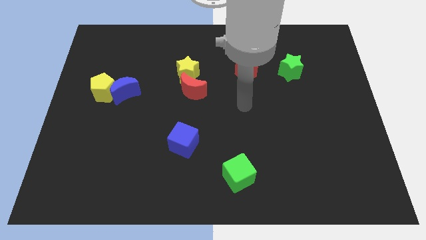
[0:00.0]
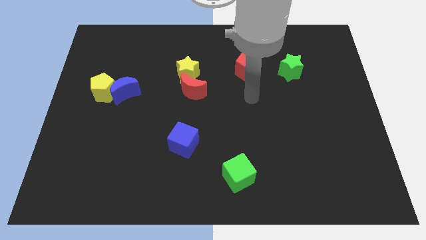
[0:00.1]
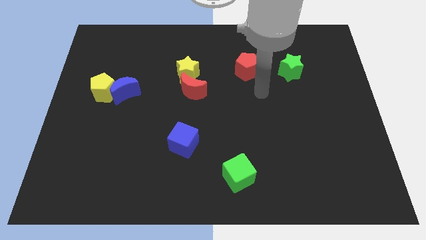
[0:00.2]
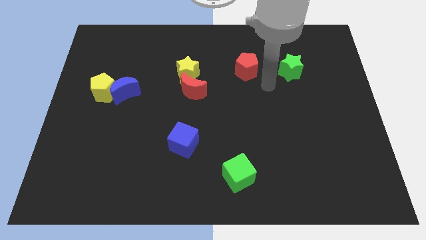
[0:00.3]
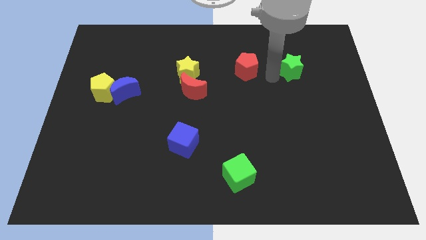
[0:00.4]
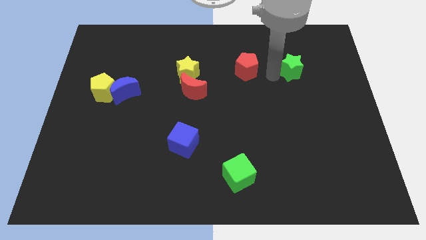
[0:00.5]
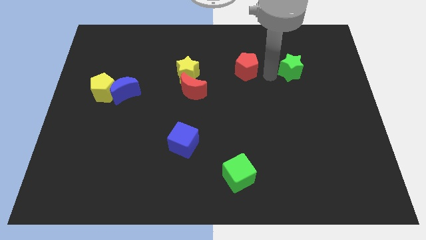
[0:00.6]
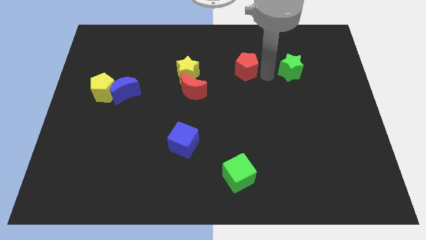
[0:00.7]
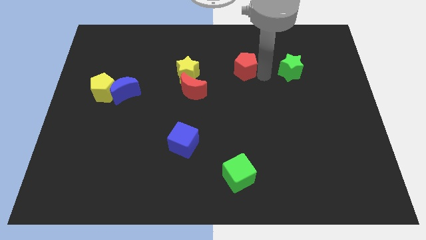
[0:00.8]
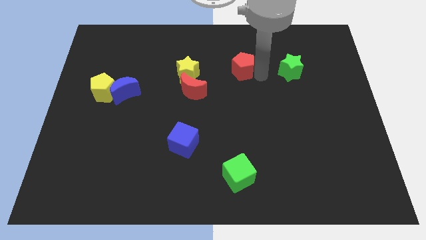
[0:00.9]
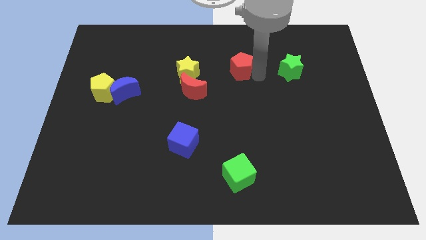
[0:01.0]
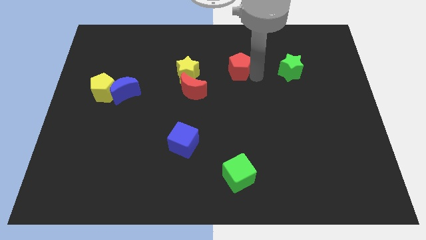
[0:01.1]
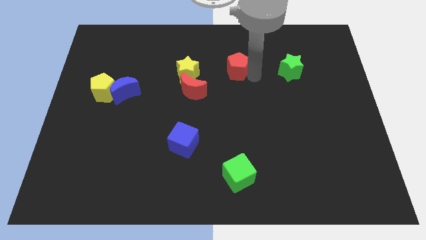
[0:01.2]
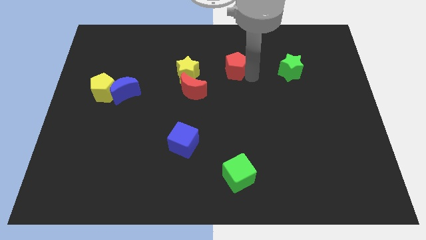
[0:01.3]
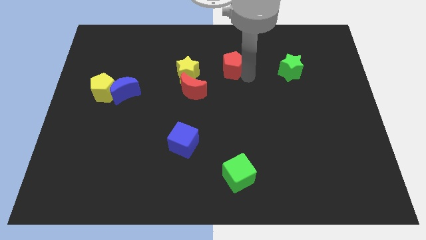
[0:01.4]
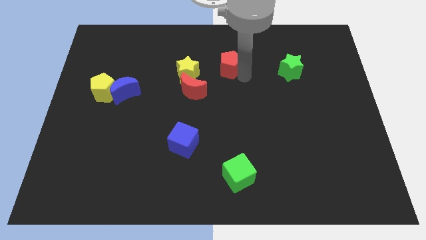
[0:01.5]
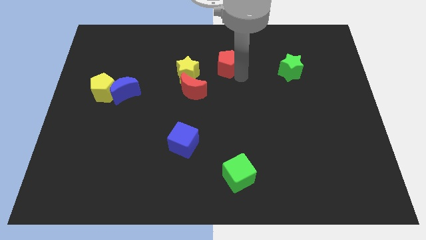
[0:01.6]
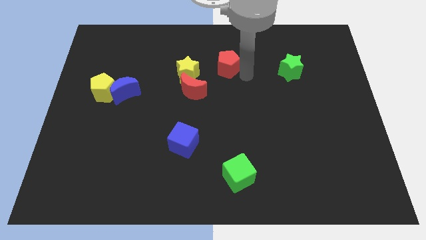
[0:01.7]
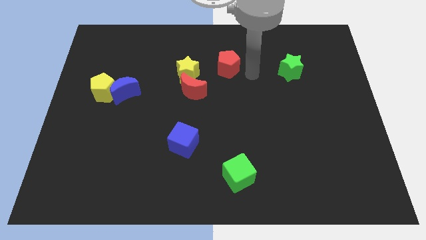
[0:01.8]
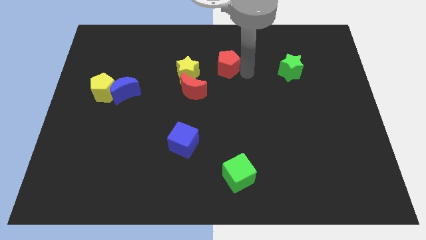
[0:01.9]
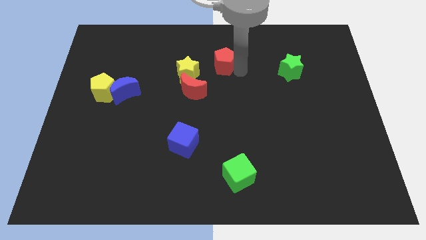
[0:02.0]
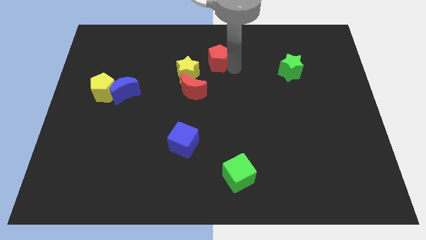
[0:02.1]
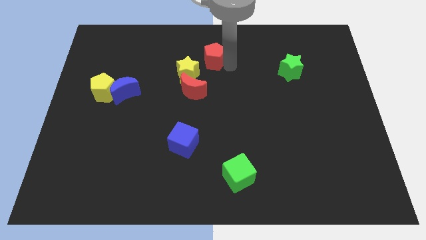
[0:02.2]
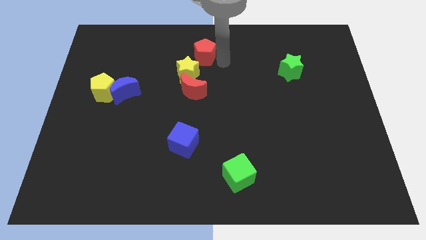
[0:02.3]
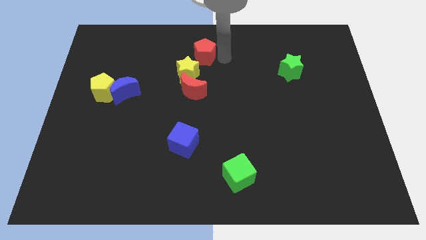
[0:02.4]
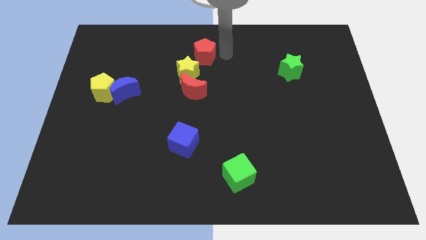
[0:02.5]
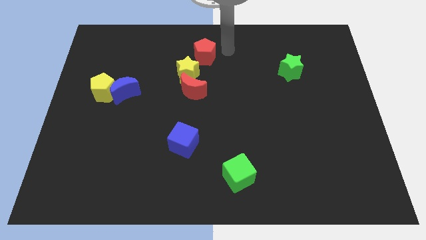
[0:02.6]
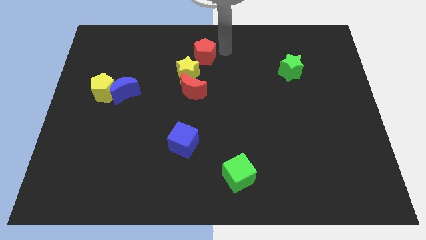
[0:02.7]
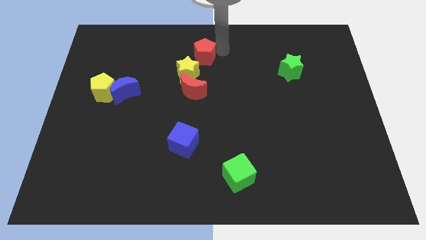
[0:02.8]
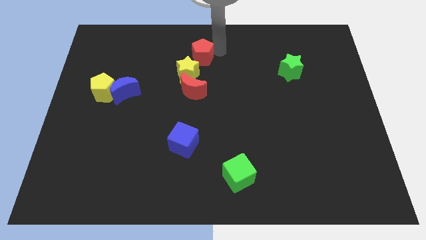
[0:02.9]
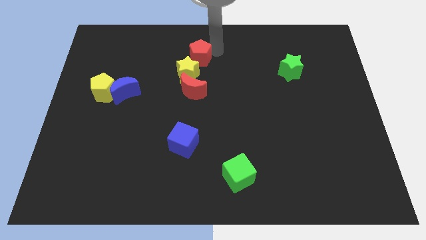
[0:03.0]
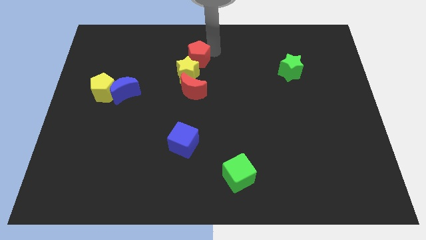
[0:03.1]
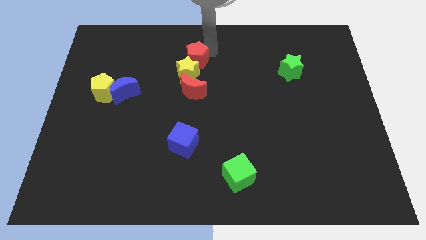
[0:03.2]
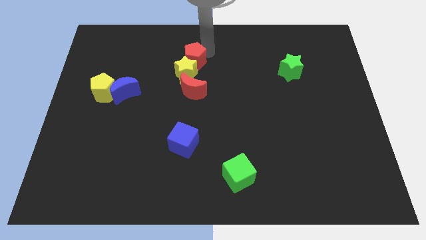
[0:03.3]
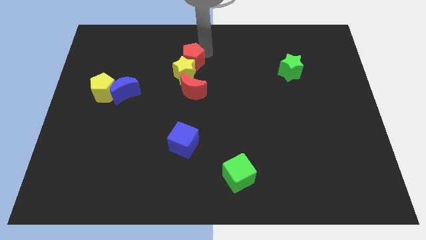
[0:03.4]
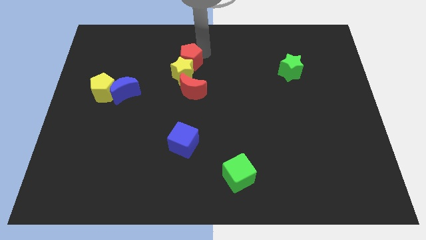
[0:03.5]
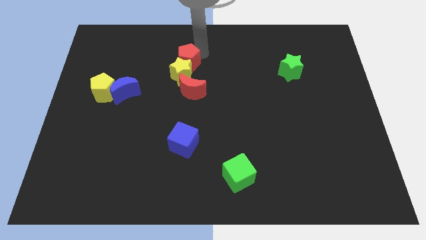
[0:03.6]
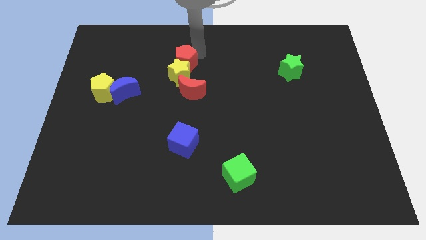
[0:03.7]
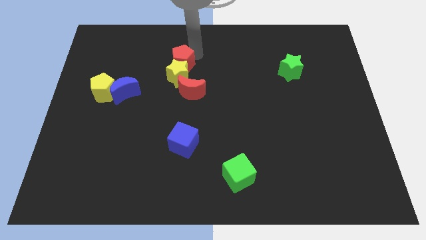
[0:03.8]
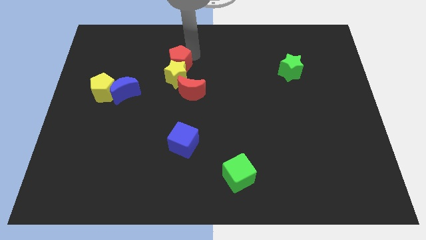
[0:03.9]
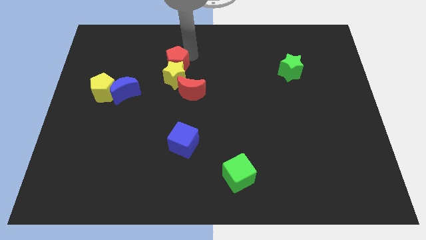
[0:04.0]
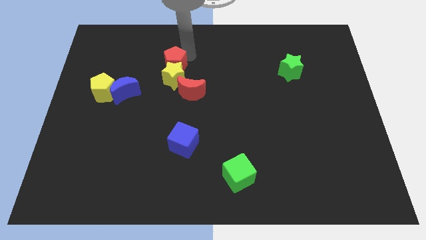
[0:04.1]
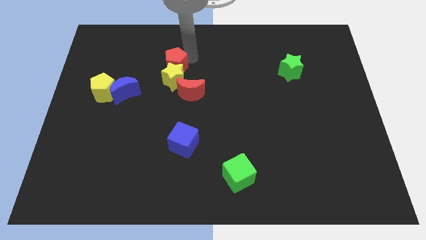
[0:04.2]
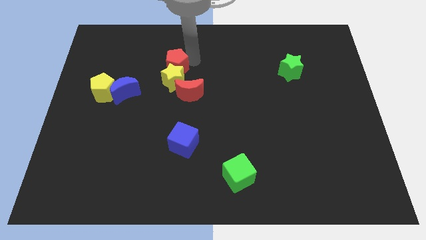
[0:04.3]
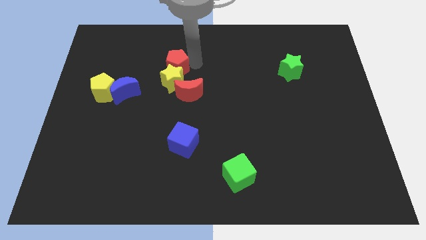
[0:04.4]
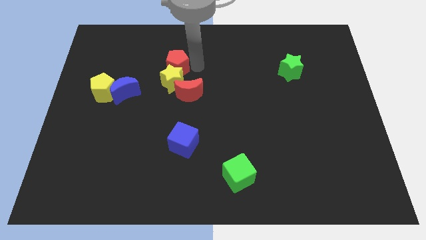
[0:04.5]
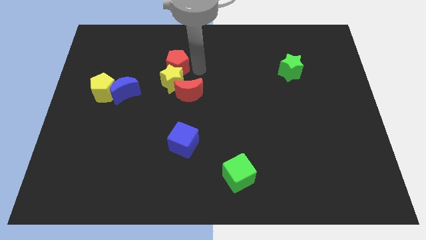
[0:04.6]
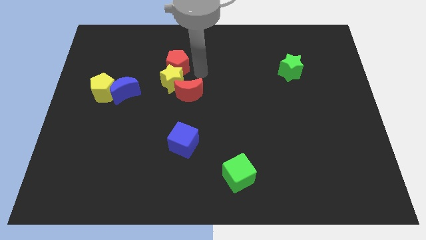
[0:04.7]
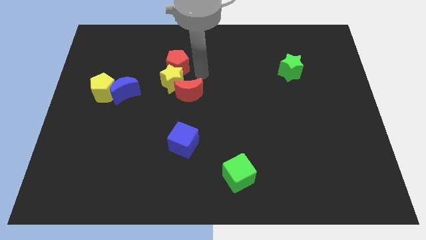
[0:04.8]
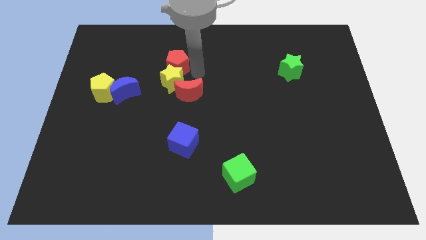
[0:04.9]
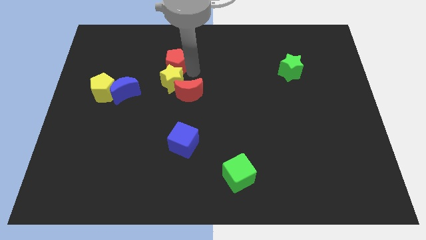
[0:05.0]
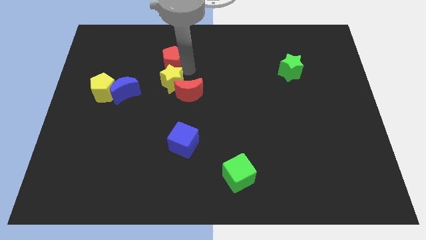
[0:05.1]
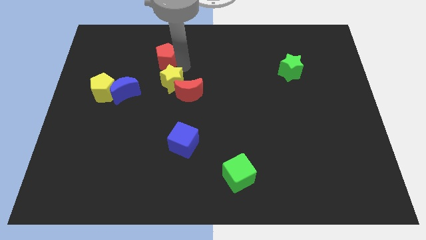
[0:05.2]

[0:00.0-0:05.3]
move the red pentagon left

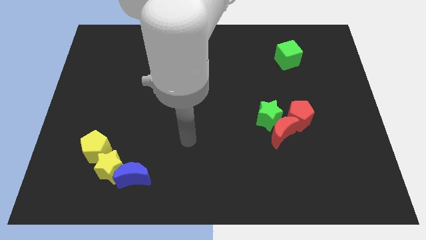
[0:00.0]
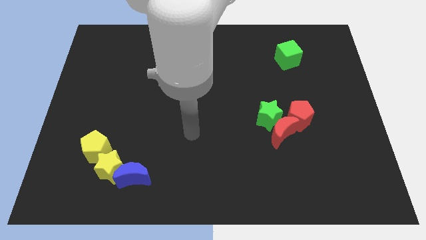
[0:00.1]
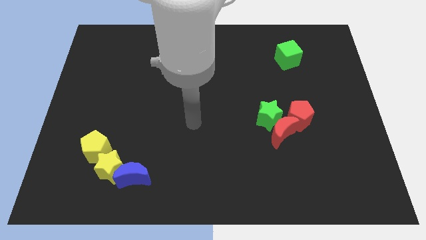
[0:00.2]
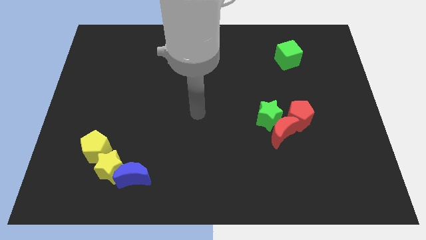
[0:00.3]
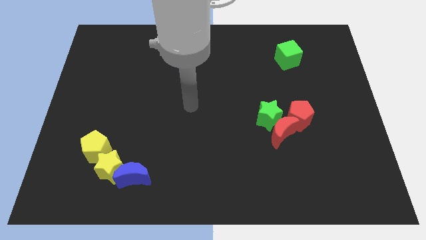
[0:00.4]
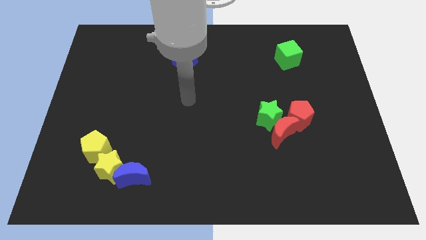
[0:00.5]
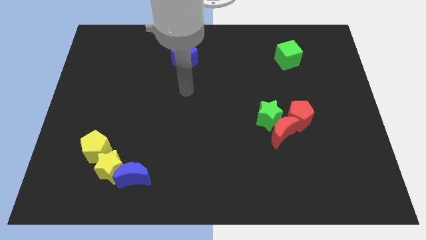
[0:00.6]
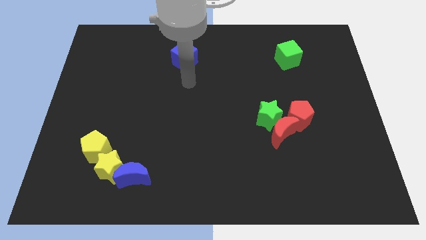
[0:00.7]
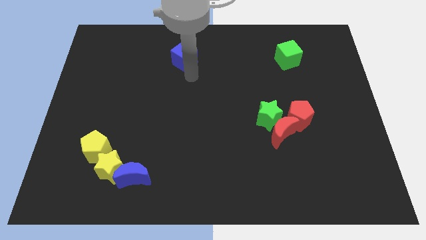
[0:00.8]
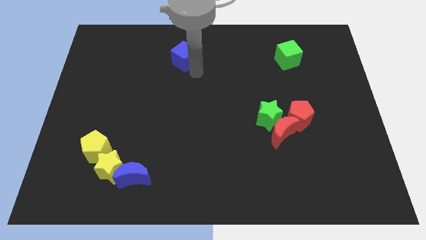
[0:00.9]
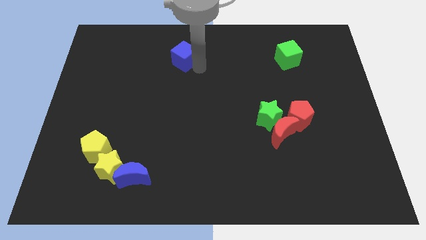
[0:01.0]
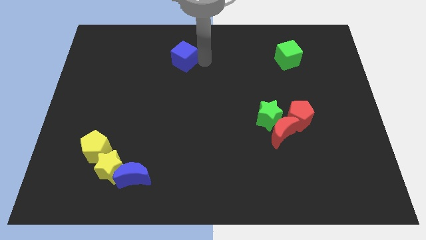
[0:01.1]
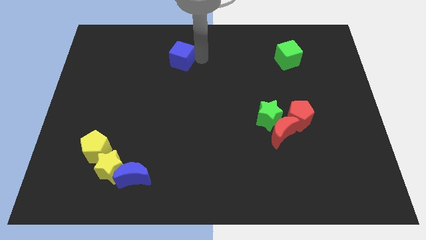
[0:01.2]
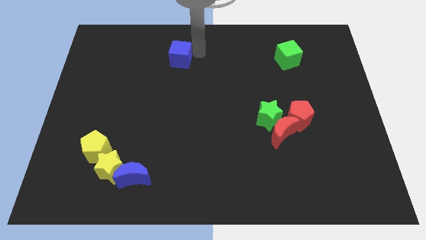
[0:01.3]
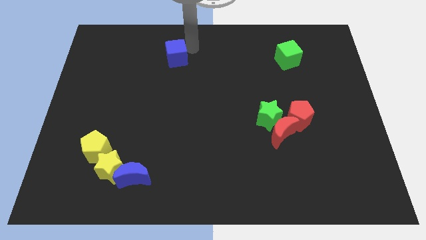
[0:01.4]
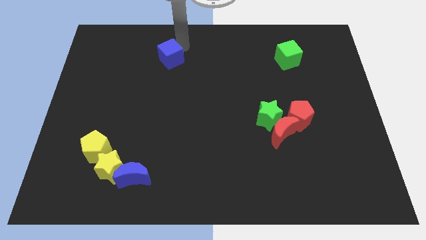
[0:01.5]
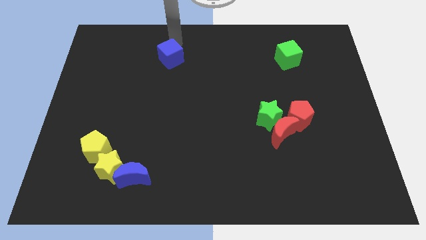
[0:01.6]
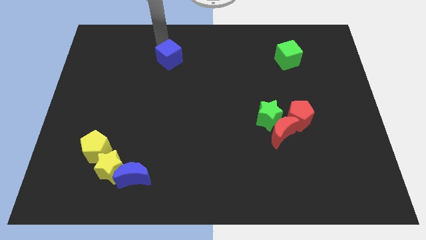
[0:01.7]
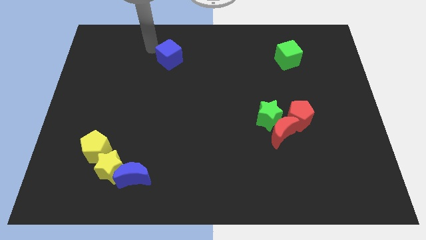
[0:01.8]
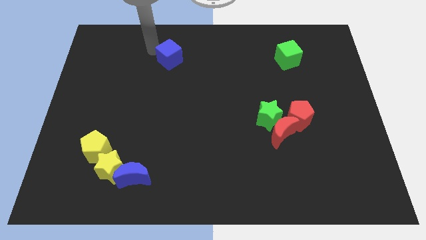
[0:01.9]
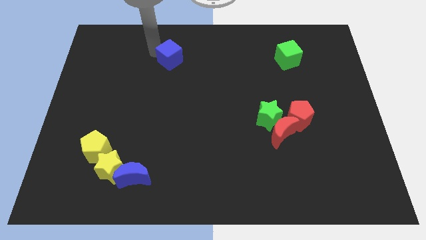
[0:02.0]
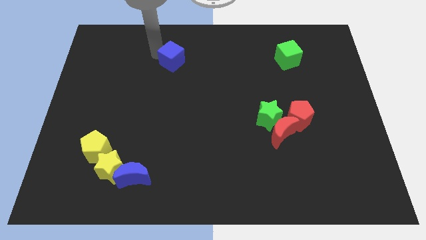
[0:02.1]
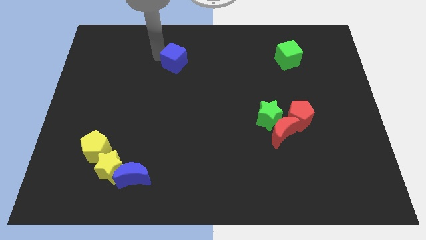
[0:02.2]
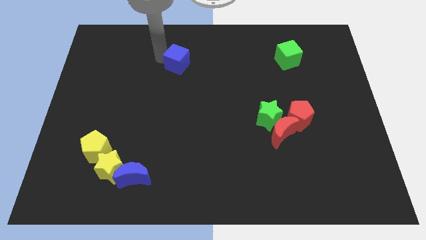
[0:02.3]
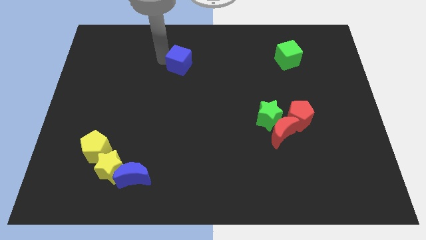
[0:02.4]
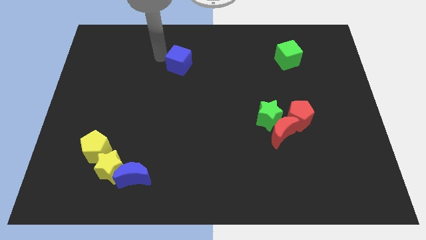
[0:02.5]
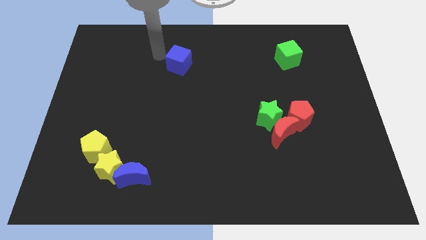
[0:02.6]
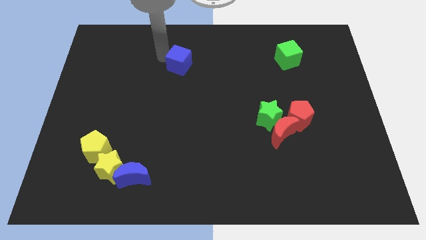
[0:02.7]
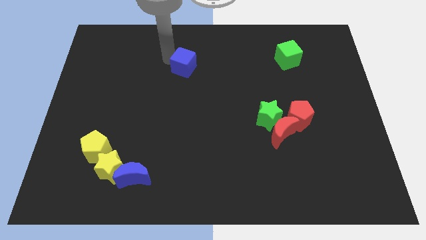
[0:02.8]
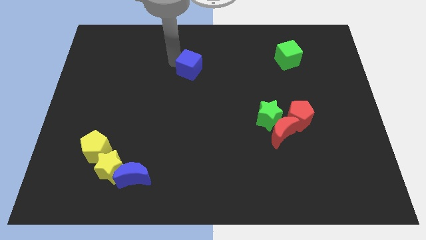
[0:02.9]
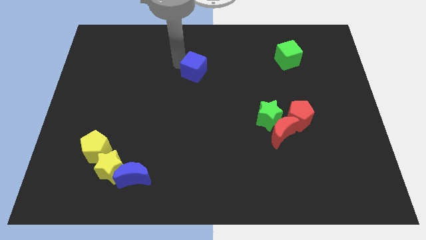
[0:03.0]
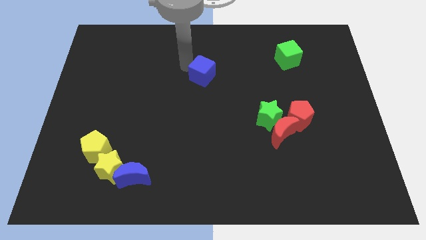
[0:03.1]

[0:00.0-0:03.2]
slightly push the blue cube down and then right
